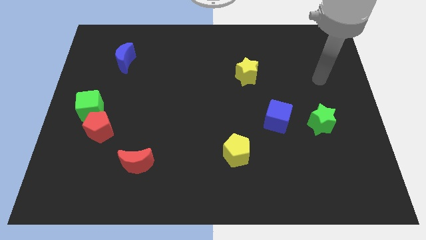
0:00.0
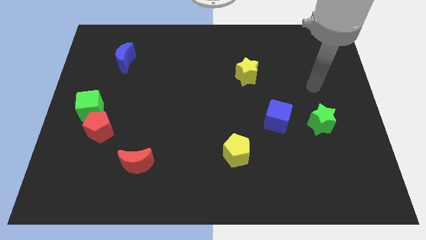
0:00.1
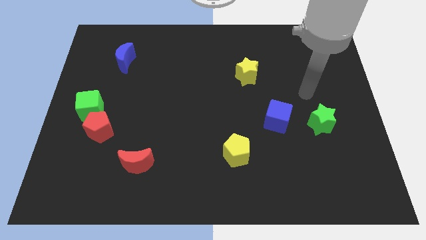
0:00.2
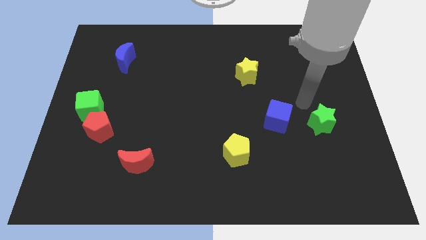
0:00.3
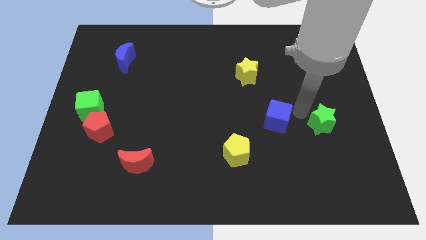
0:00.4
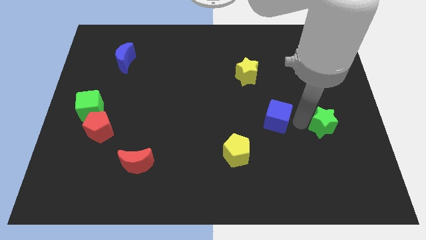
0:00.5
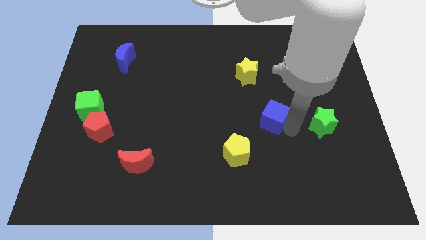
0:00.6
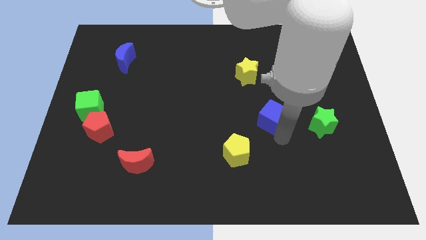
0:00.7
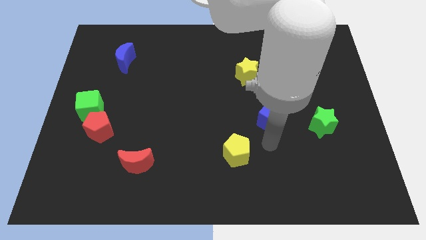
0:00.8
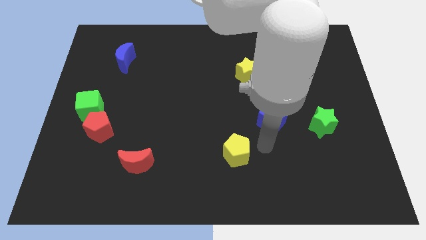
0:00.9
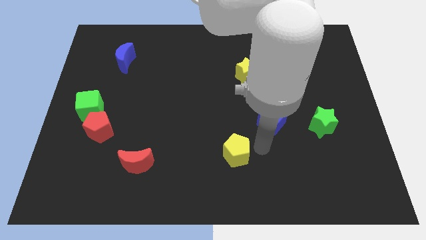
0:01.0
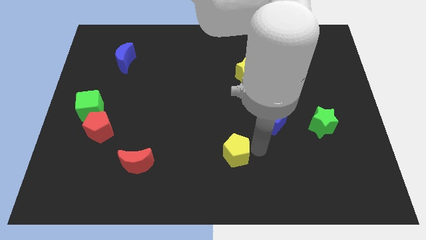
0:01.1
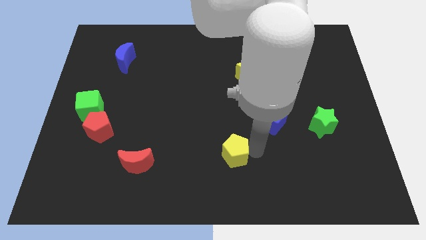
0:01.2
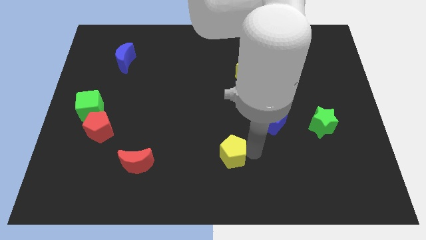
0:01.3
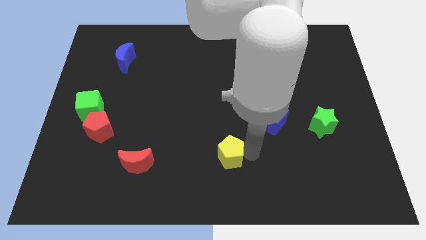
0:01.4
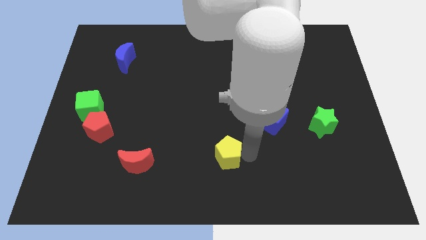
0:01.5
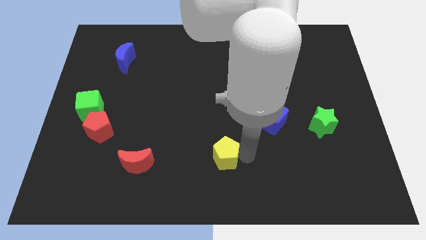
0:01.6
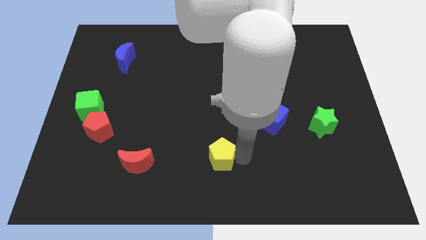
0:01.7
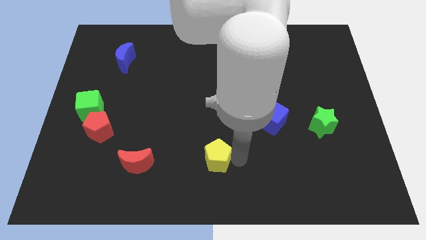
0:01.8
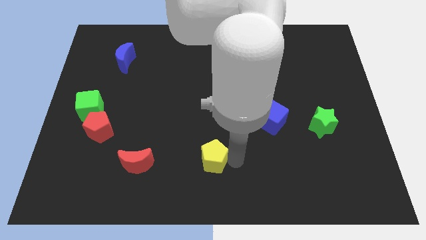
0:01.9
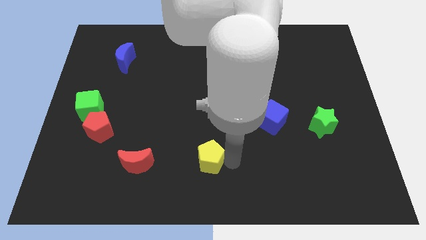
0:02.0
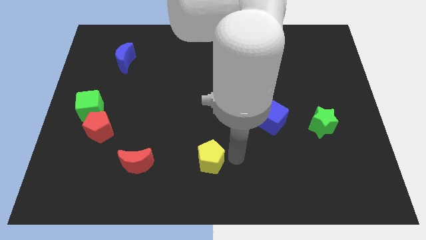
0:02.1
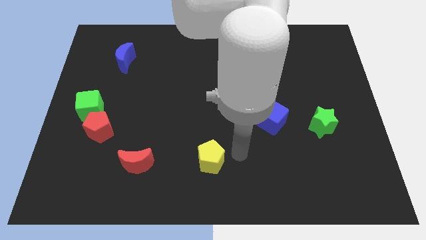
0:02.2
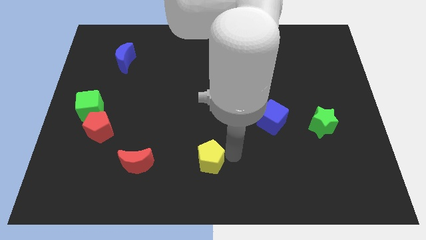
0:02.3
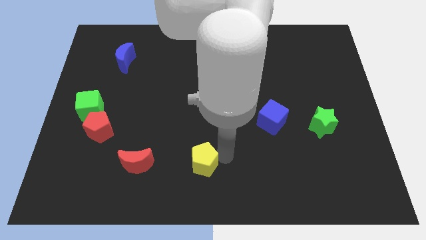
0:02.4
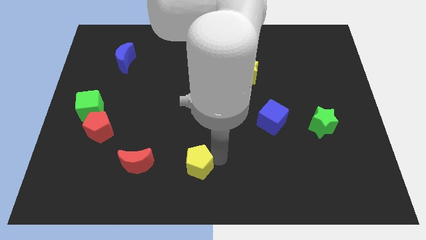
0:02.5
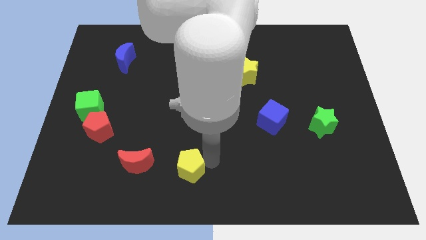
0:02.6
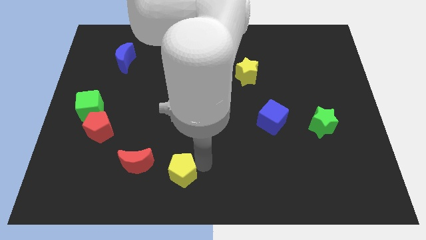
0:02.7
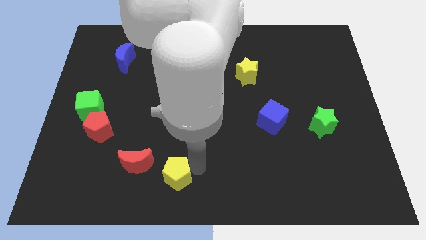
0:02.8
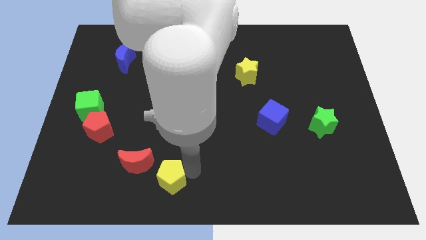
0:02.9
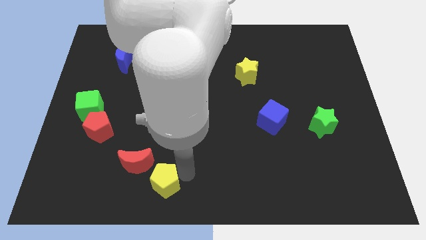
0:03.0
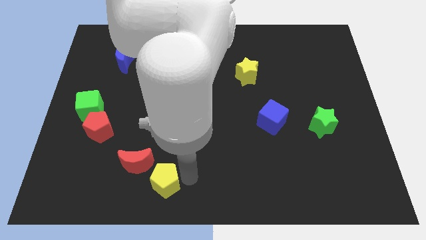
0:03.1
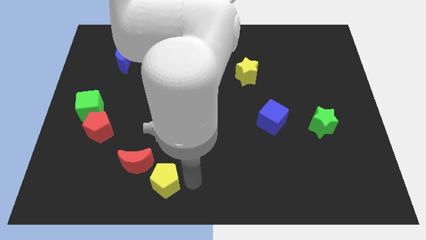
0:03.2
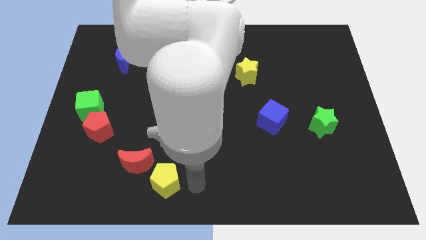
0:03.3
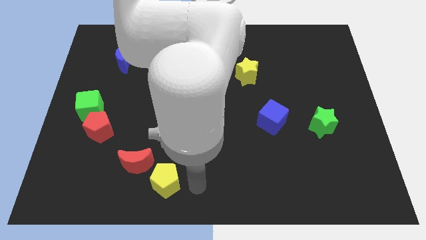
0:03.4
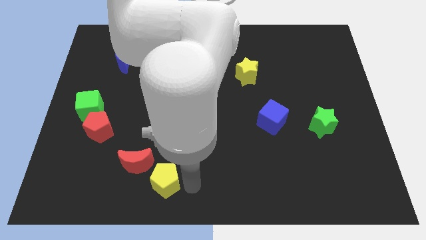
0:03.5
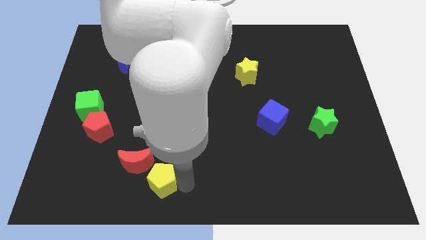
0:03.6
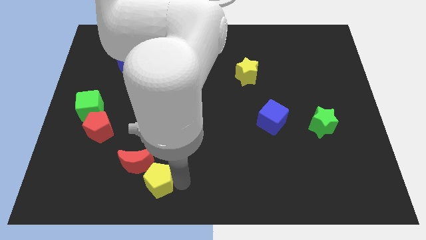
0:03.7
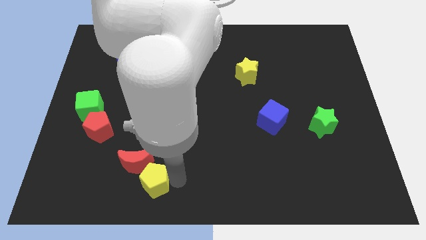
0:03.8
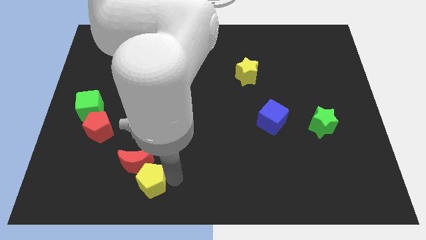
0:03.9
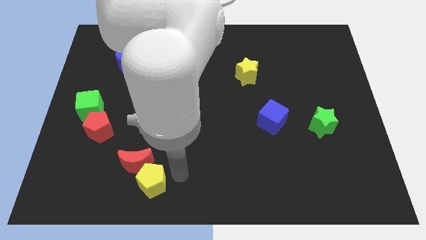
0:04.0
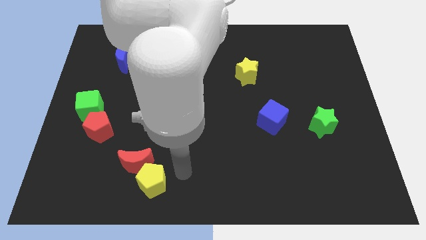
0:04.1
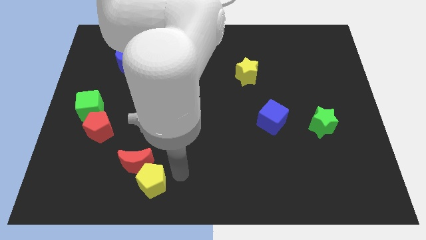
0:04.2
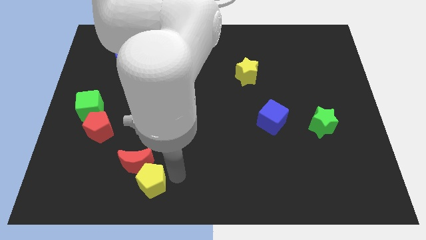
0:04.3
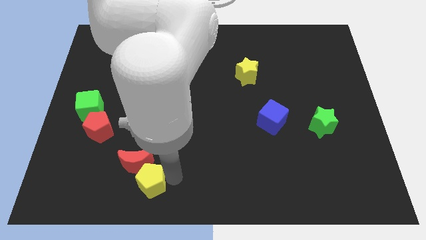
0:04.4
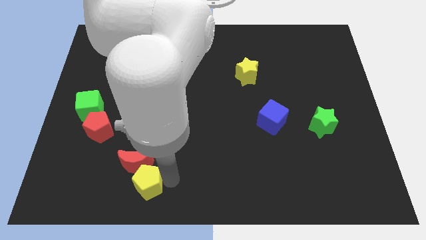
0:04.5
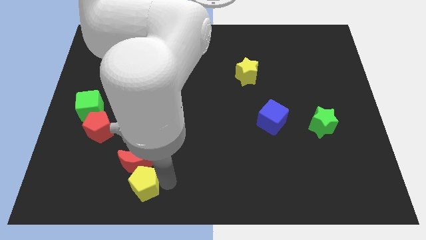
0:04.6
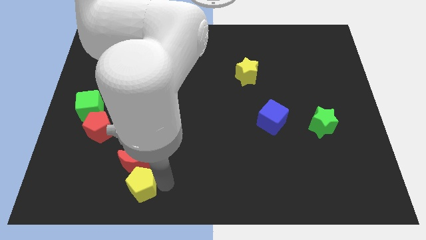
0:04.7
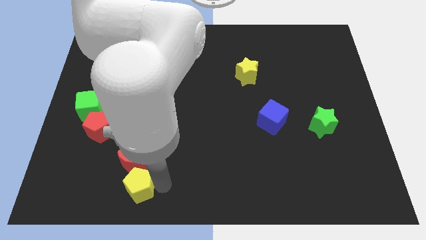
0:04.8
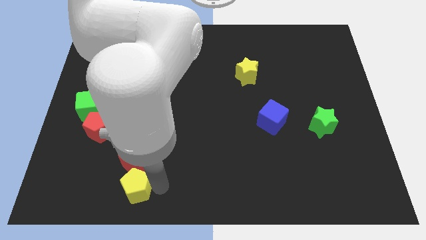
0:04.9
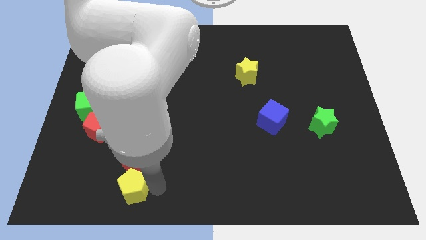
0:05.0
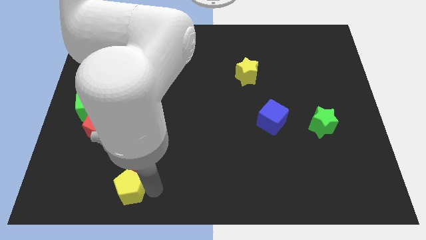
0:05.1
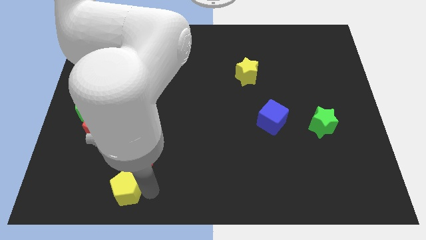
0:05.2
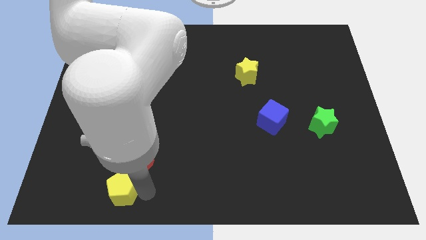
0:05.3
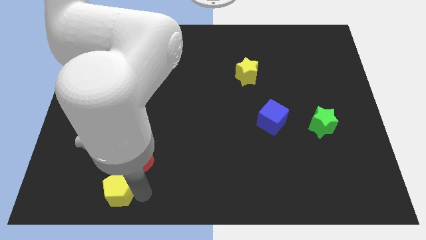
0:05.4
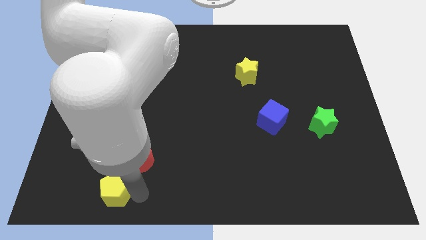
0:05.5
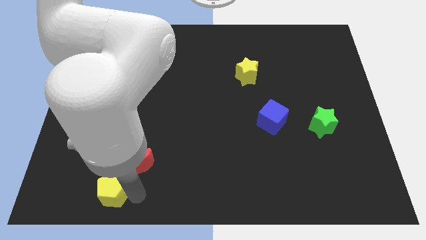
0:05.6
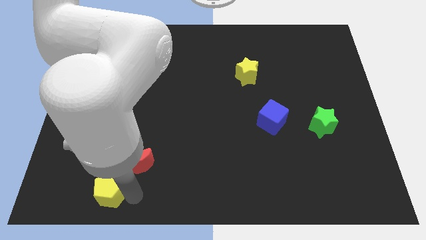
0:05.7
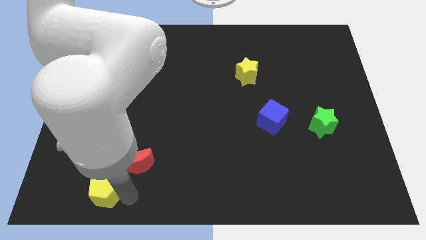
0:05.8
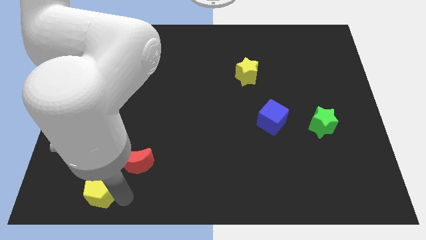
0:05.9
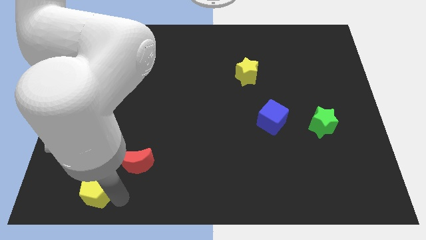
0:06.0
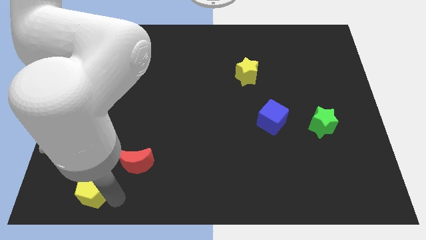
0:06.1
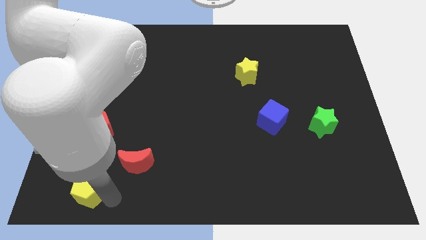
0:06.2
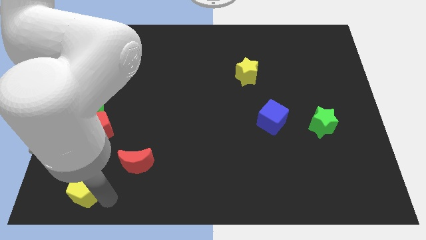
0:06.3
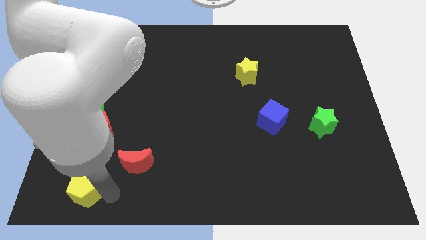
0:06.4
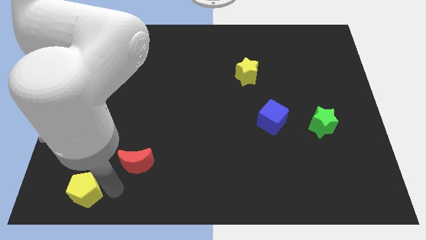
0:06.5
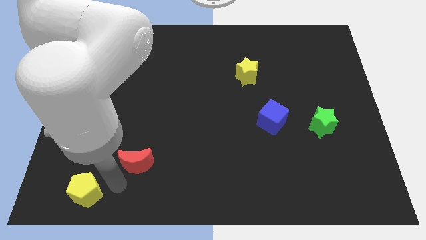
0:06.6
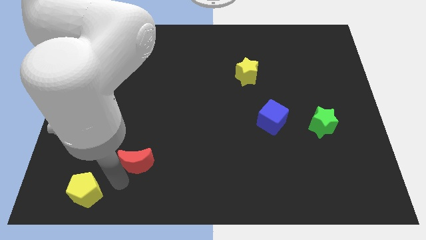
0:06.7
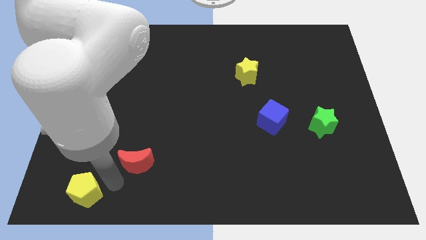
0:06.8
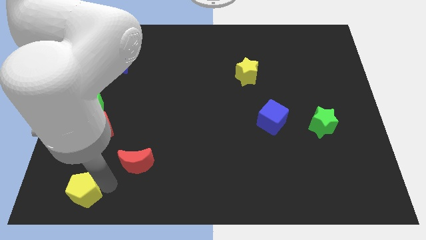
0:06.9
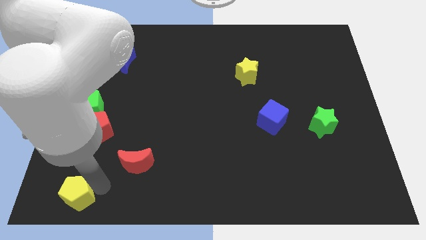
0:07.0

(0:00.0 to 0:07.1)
push the yellow pentagon to the bottom left
